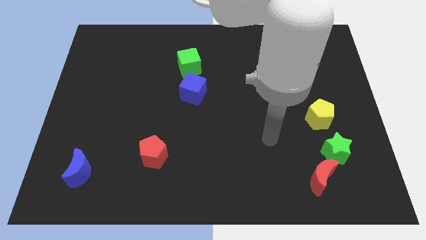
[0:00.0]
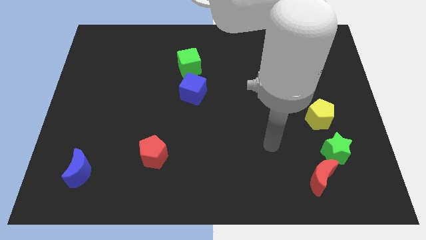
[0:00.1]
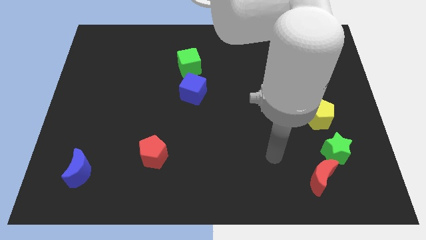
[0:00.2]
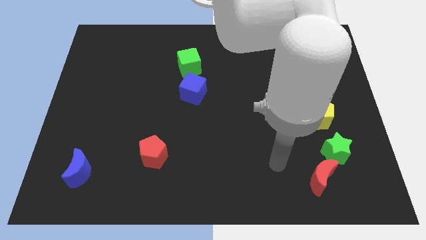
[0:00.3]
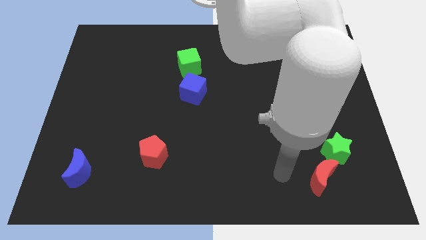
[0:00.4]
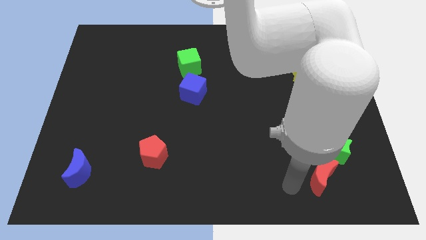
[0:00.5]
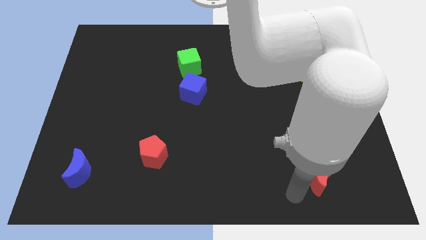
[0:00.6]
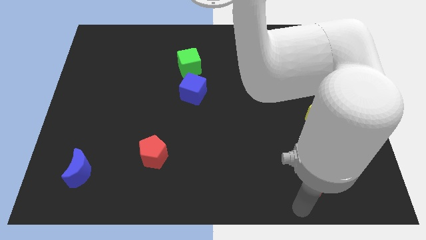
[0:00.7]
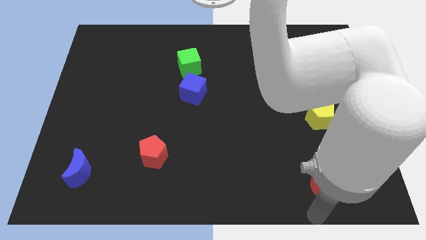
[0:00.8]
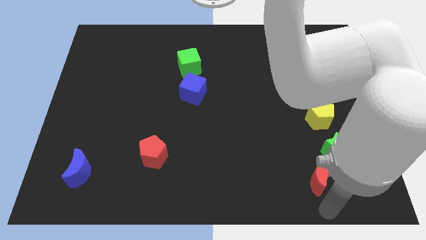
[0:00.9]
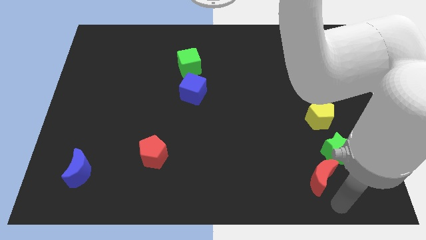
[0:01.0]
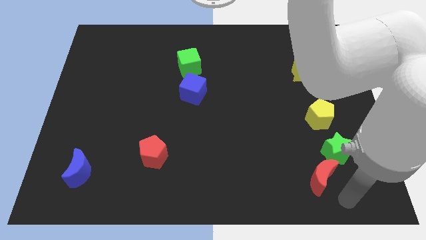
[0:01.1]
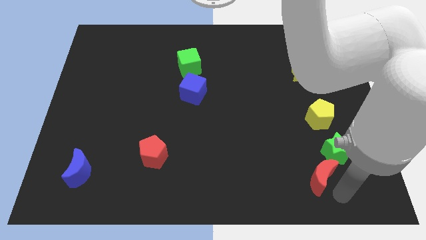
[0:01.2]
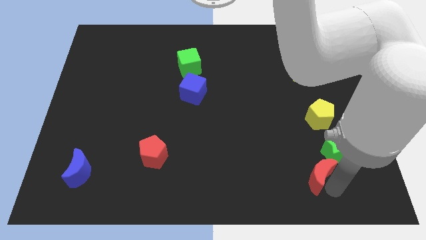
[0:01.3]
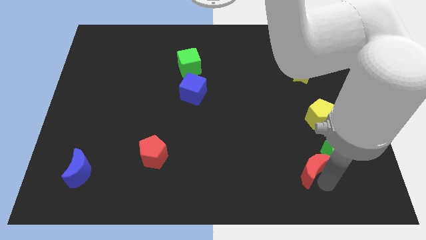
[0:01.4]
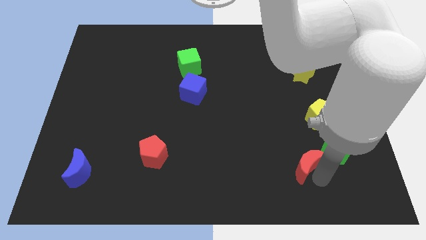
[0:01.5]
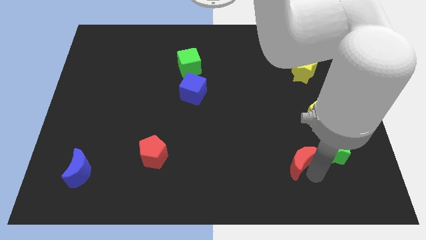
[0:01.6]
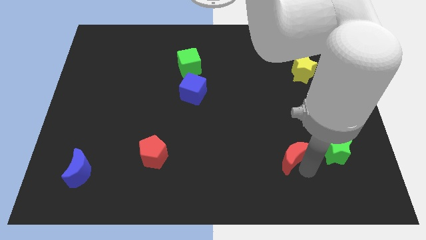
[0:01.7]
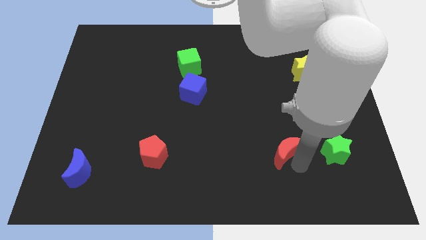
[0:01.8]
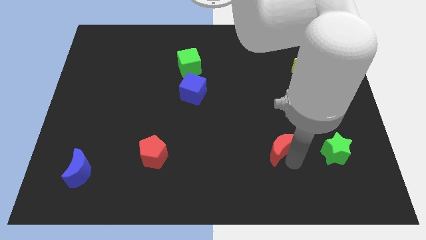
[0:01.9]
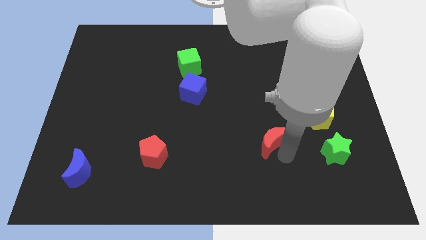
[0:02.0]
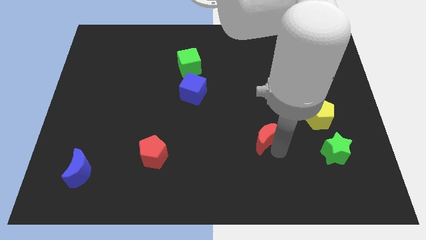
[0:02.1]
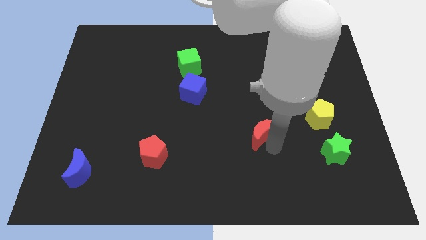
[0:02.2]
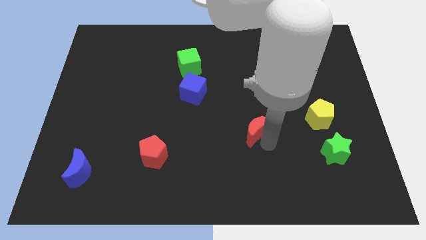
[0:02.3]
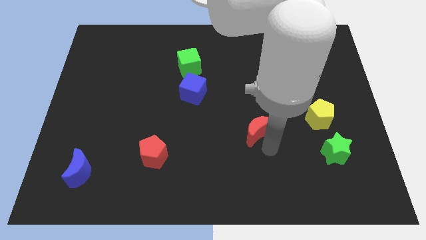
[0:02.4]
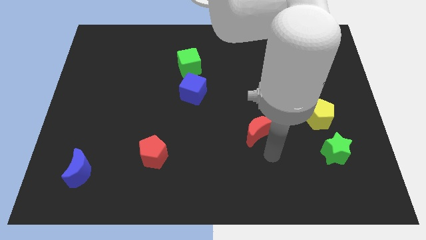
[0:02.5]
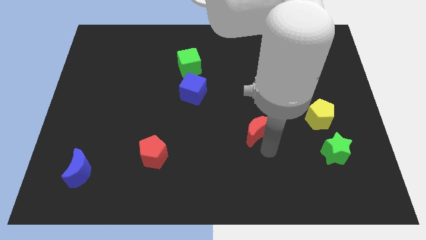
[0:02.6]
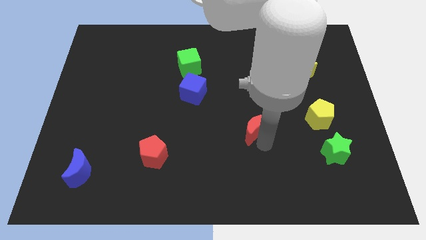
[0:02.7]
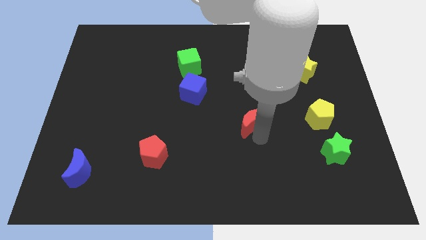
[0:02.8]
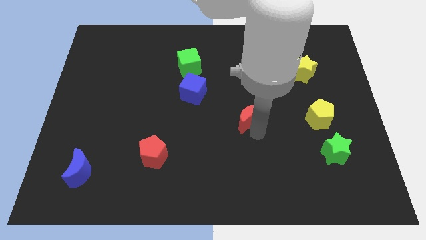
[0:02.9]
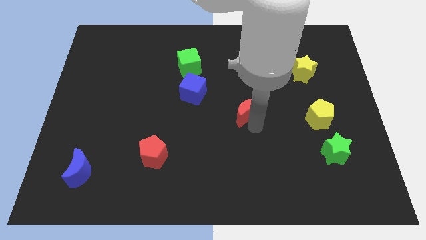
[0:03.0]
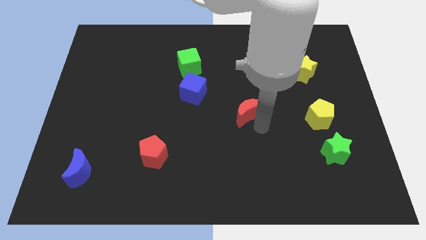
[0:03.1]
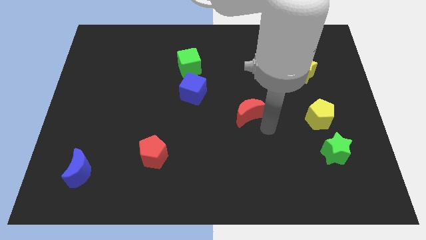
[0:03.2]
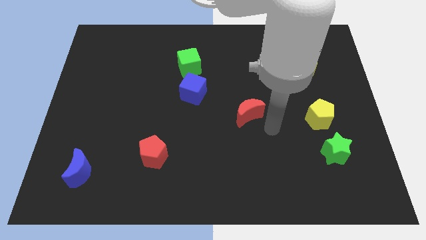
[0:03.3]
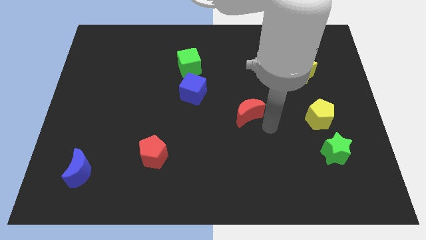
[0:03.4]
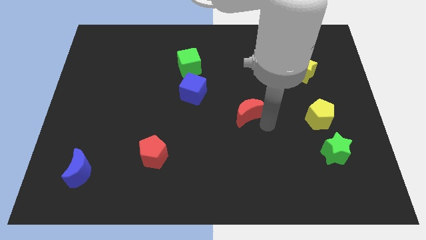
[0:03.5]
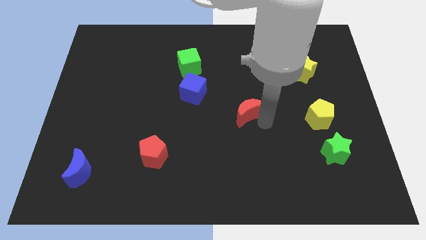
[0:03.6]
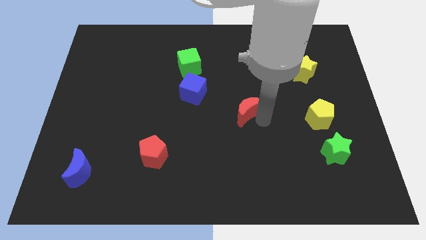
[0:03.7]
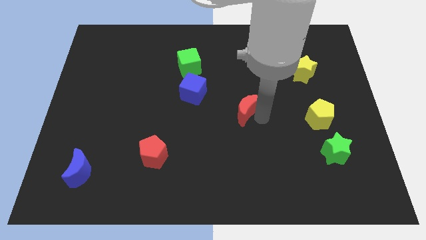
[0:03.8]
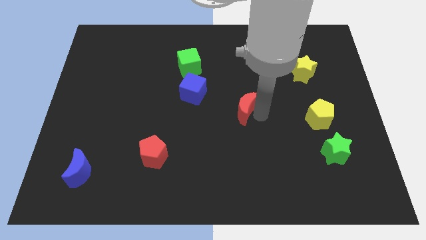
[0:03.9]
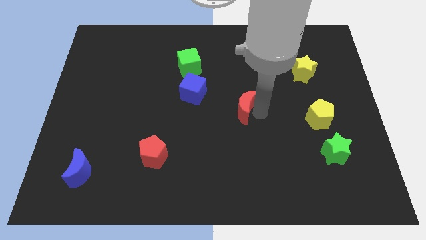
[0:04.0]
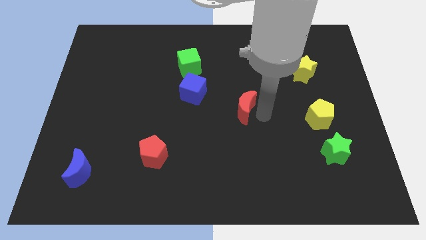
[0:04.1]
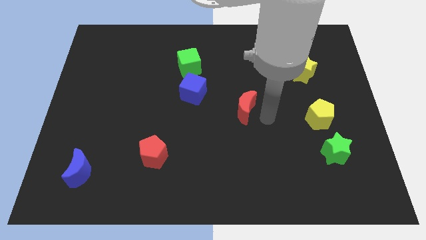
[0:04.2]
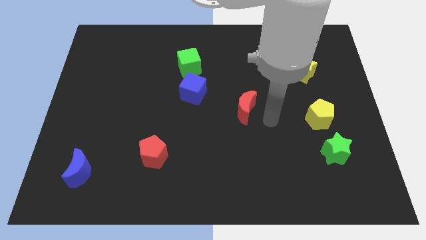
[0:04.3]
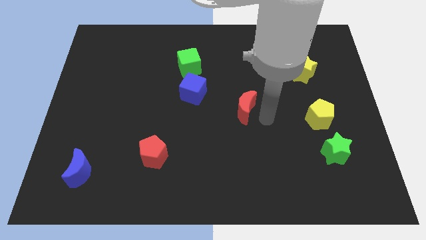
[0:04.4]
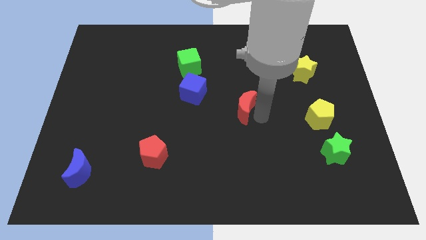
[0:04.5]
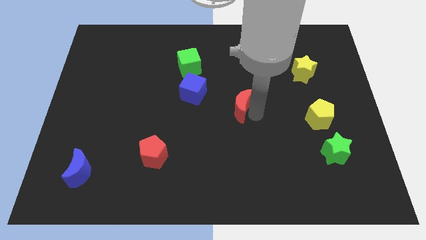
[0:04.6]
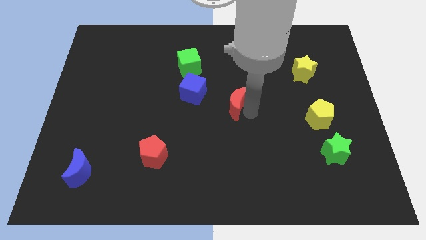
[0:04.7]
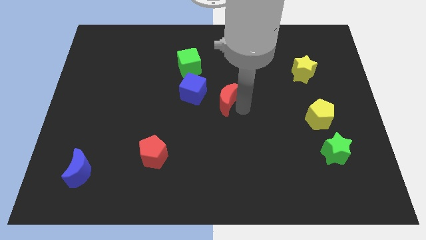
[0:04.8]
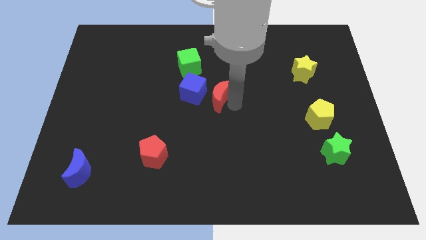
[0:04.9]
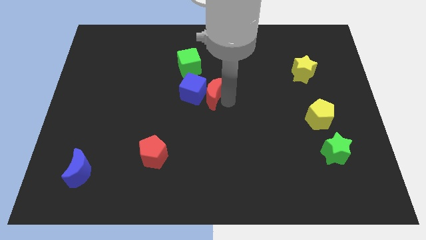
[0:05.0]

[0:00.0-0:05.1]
push the red moon to the blue cube

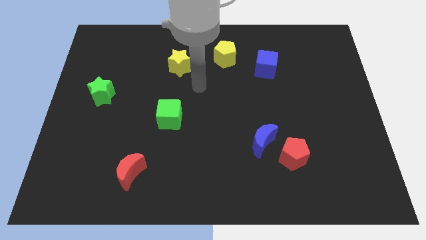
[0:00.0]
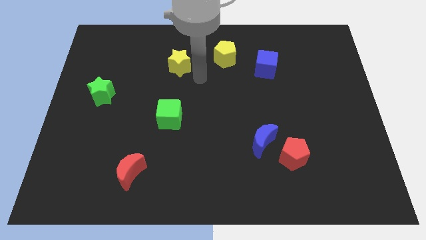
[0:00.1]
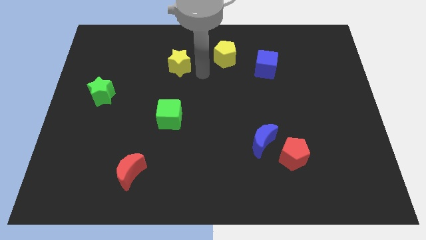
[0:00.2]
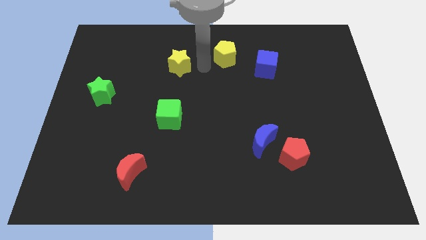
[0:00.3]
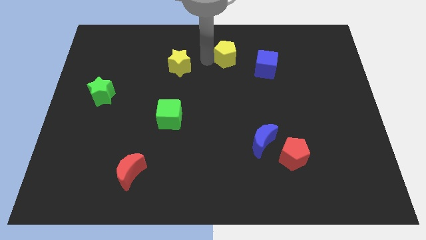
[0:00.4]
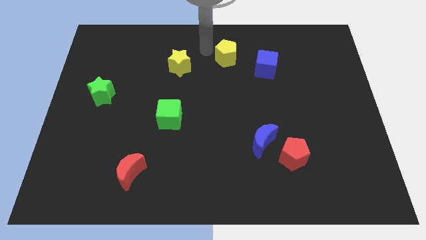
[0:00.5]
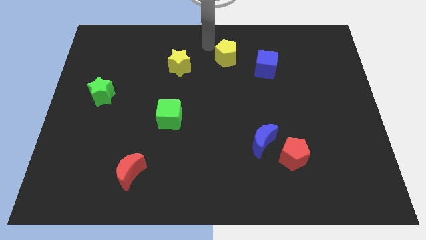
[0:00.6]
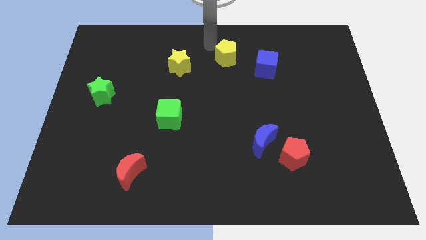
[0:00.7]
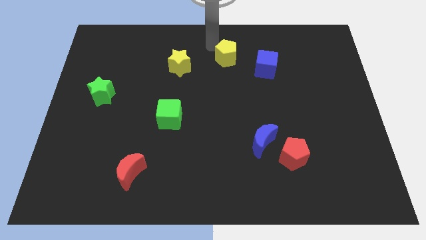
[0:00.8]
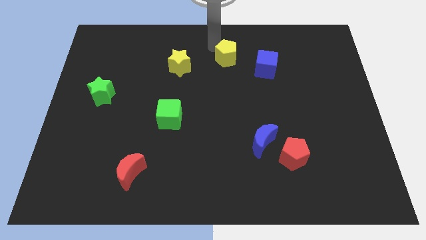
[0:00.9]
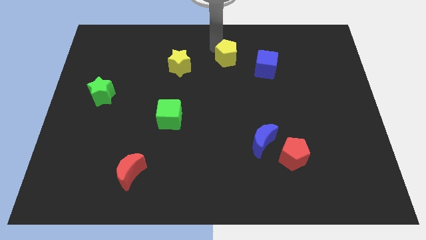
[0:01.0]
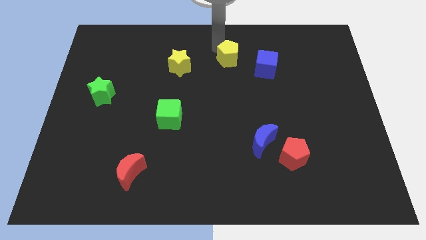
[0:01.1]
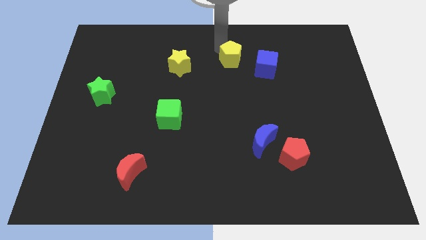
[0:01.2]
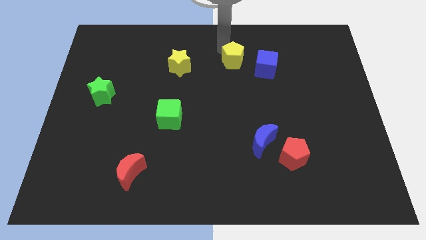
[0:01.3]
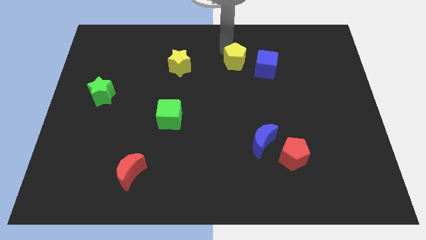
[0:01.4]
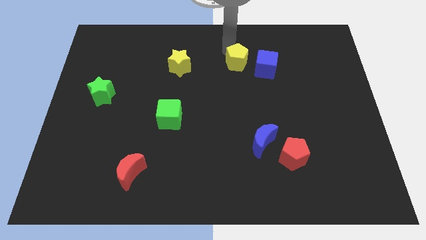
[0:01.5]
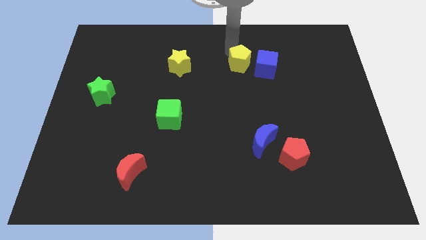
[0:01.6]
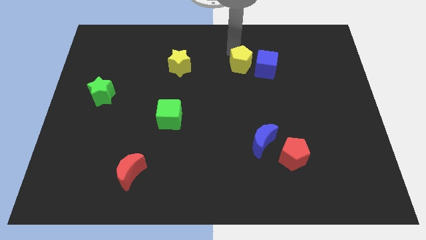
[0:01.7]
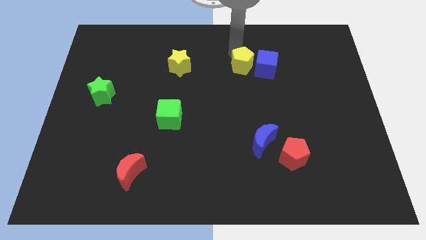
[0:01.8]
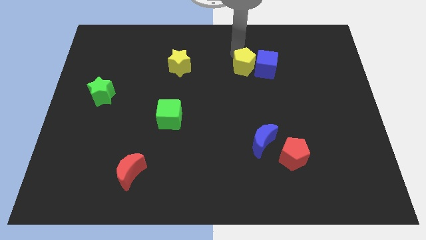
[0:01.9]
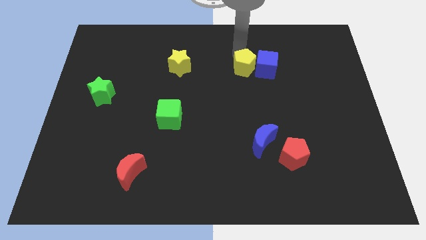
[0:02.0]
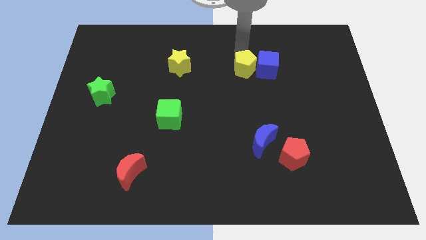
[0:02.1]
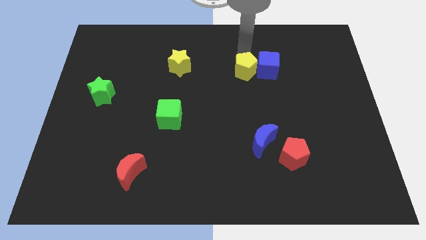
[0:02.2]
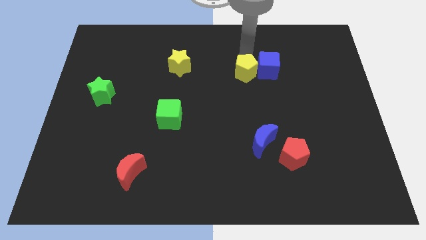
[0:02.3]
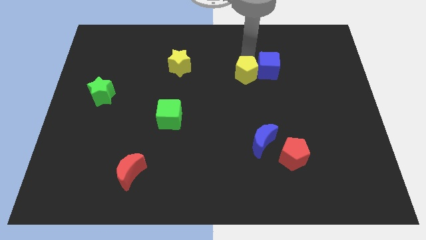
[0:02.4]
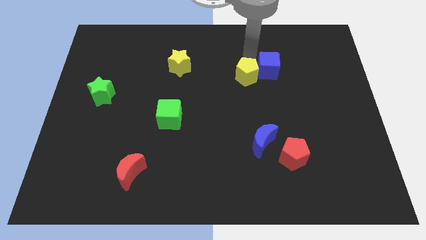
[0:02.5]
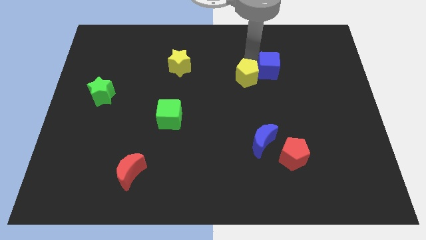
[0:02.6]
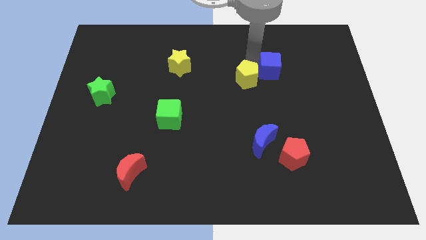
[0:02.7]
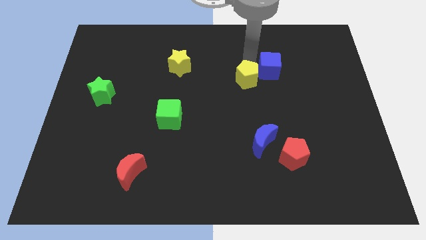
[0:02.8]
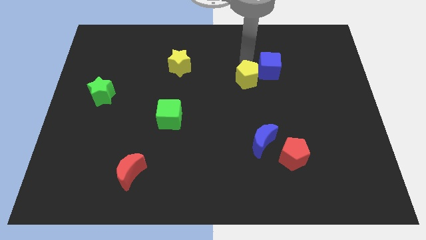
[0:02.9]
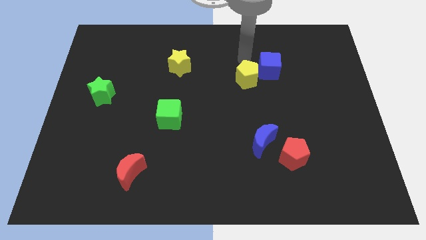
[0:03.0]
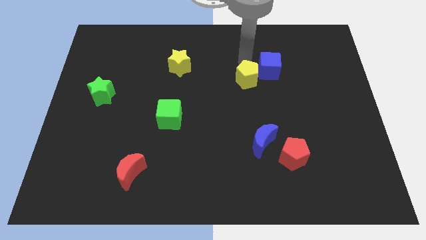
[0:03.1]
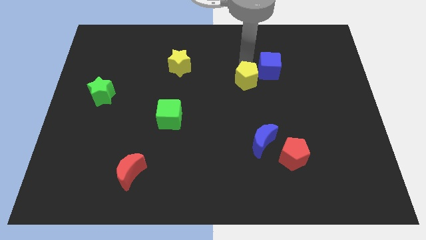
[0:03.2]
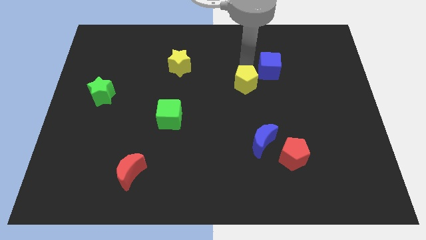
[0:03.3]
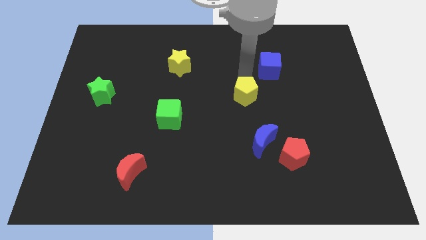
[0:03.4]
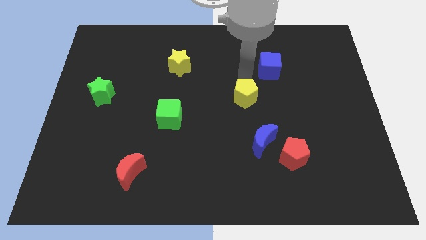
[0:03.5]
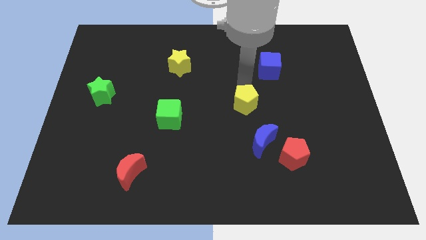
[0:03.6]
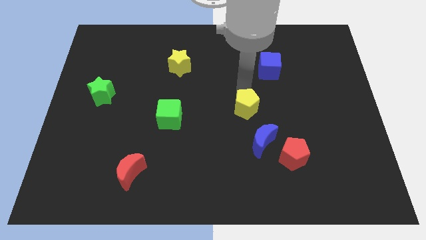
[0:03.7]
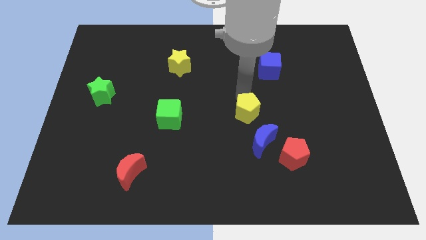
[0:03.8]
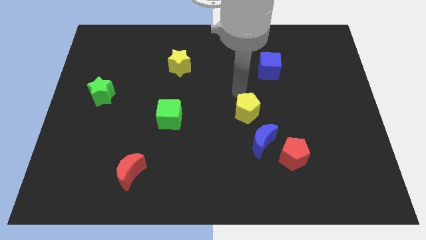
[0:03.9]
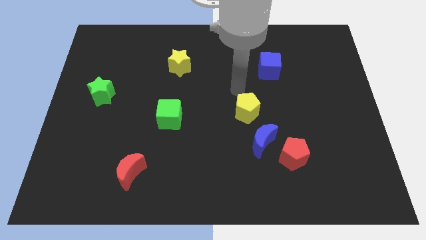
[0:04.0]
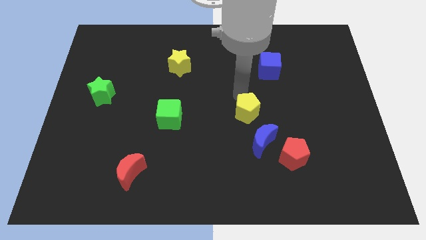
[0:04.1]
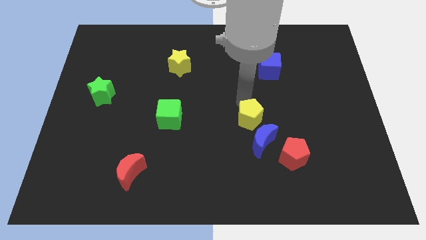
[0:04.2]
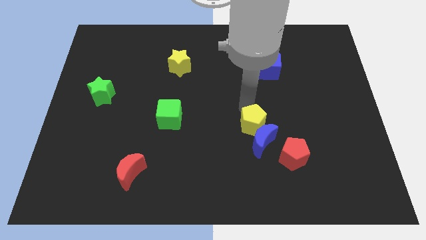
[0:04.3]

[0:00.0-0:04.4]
slide the yellow pentagon towards the blue moon
